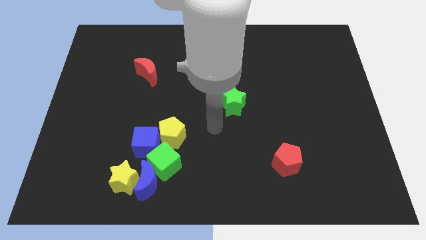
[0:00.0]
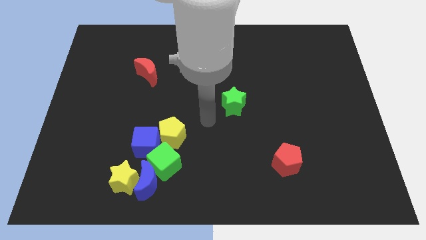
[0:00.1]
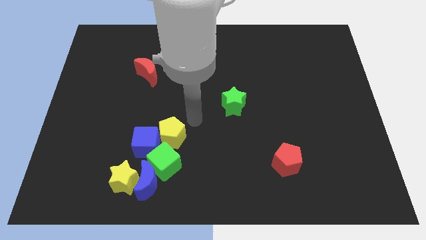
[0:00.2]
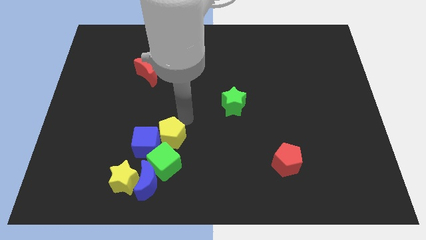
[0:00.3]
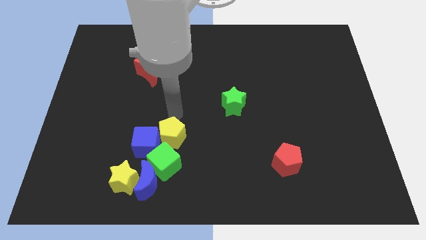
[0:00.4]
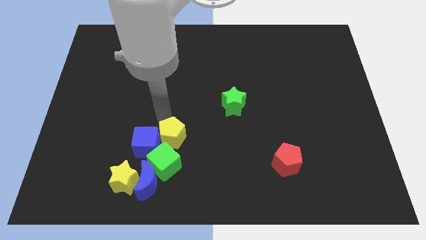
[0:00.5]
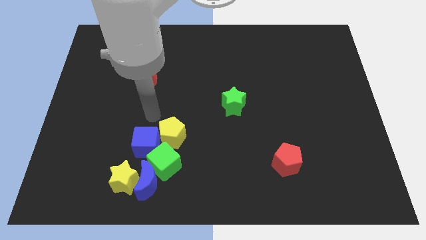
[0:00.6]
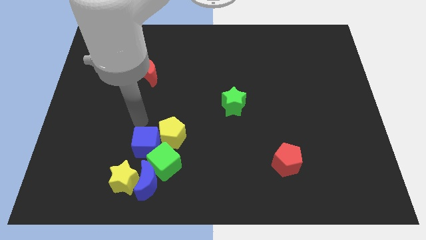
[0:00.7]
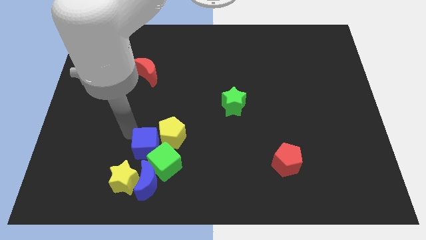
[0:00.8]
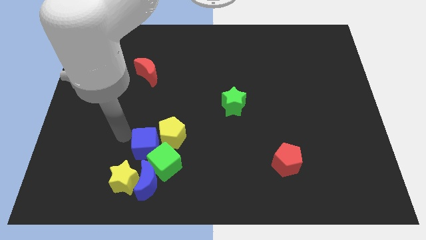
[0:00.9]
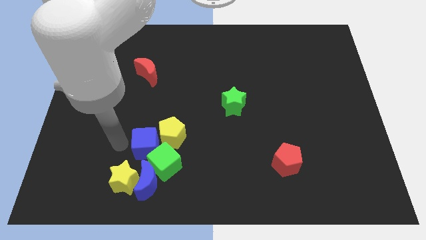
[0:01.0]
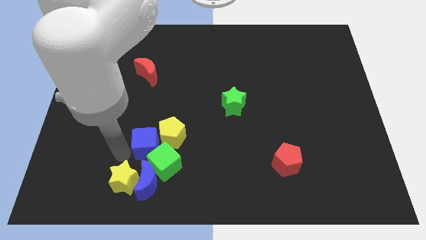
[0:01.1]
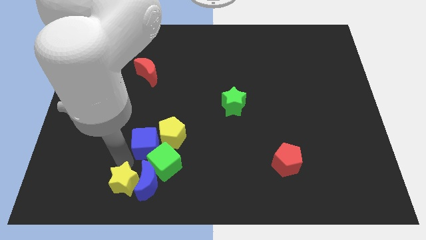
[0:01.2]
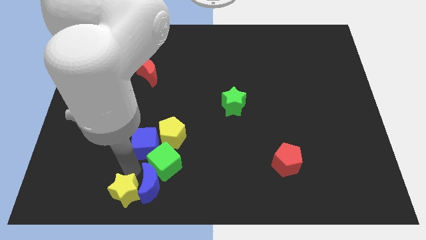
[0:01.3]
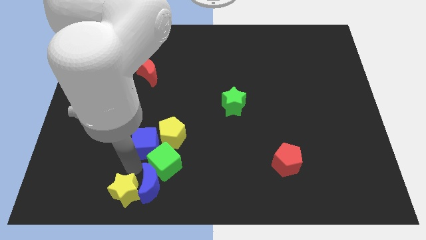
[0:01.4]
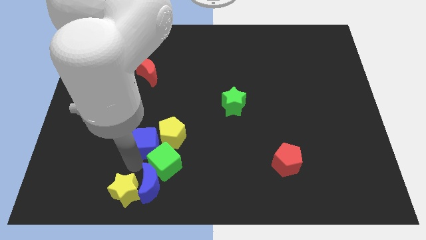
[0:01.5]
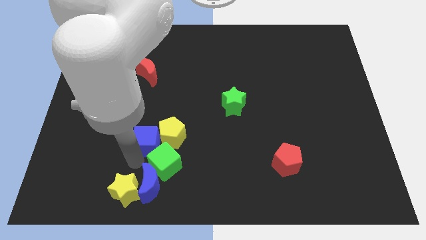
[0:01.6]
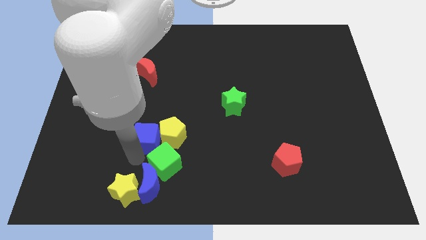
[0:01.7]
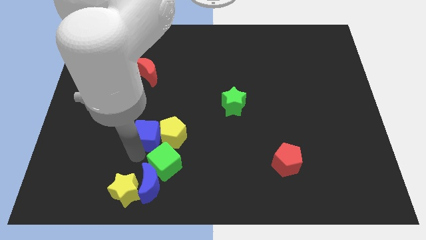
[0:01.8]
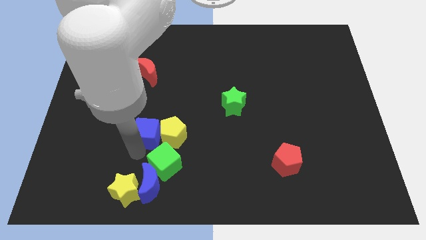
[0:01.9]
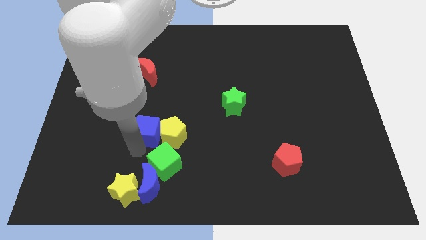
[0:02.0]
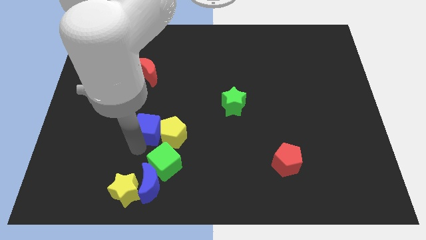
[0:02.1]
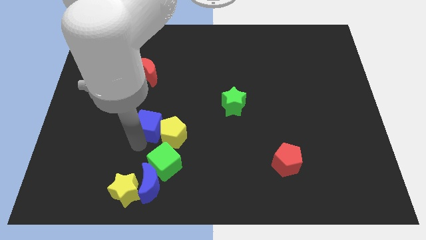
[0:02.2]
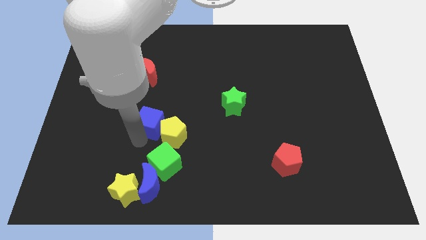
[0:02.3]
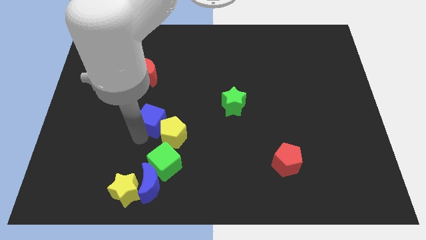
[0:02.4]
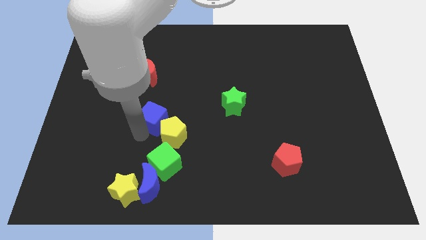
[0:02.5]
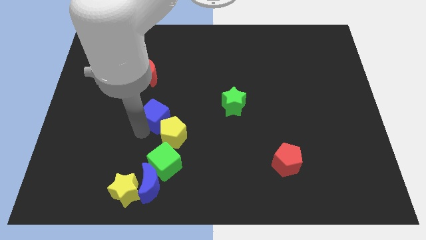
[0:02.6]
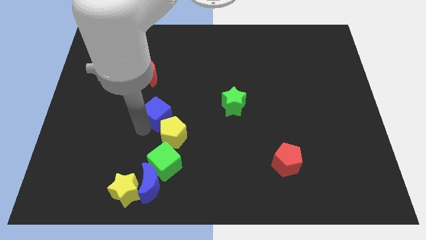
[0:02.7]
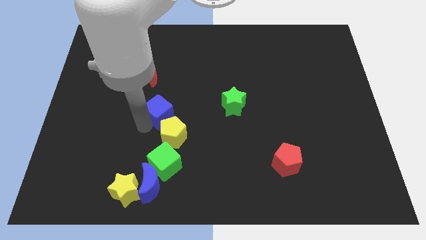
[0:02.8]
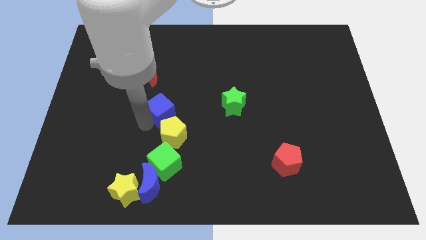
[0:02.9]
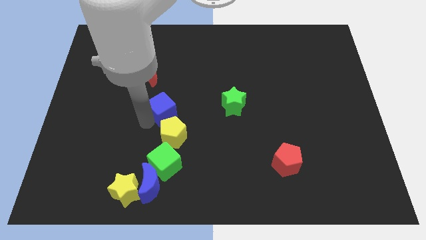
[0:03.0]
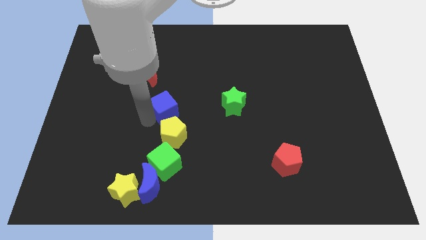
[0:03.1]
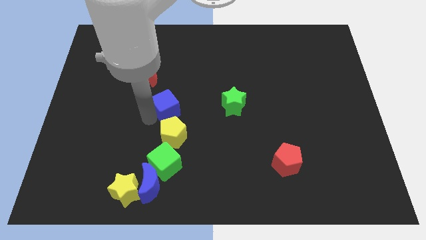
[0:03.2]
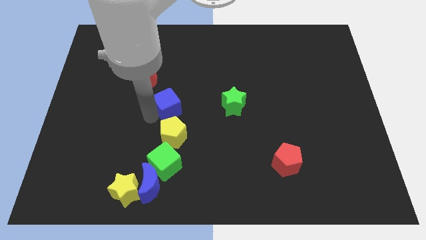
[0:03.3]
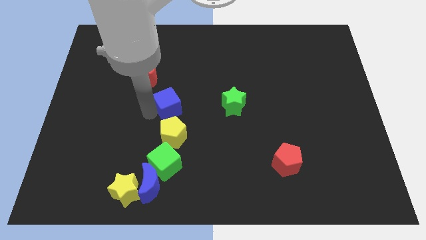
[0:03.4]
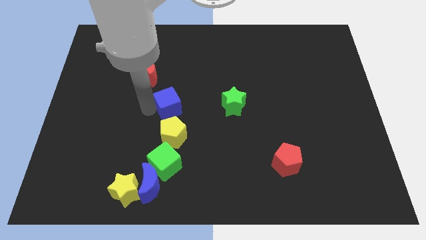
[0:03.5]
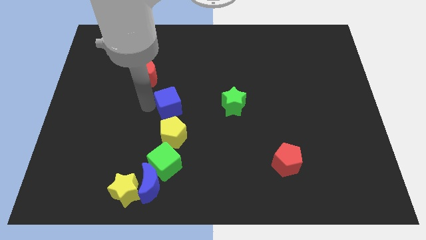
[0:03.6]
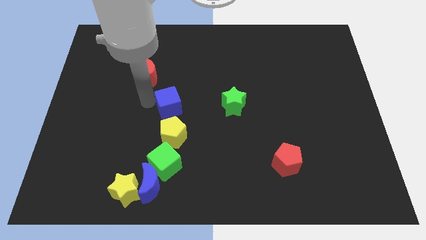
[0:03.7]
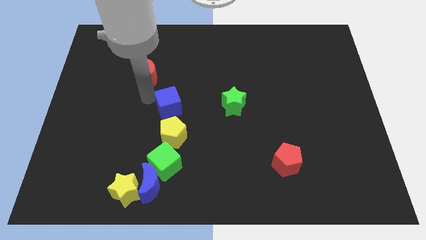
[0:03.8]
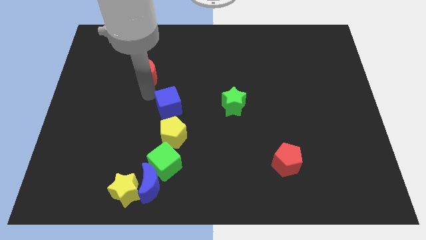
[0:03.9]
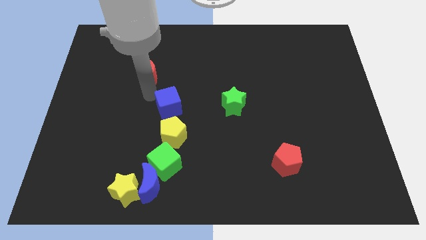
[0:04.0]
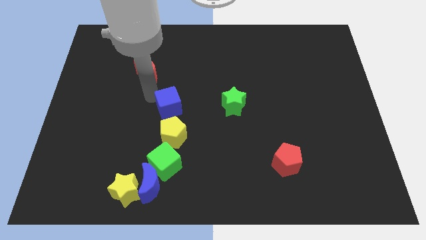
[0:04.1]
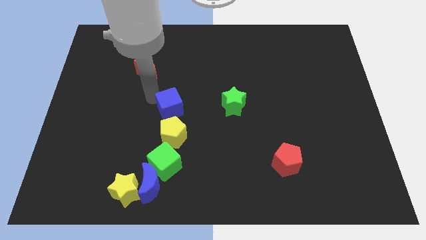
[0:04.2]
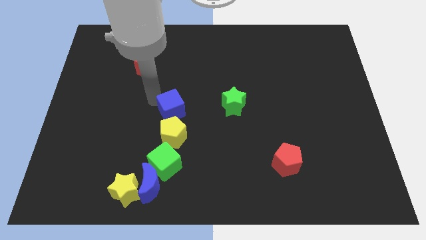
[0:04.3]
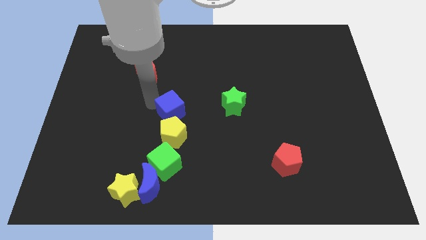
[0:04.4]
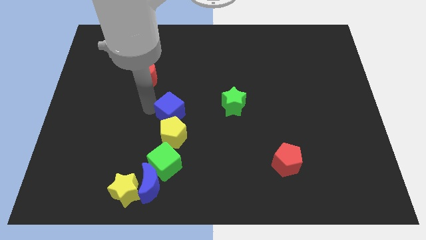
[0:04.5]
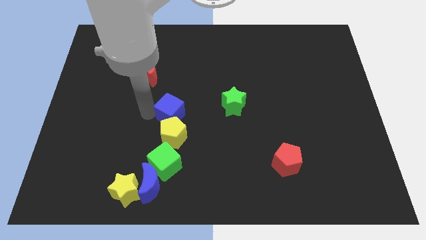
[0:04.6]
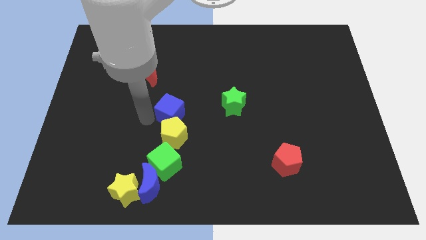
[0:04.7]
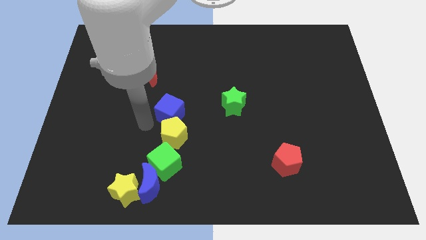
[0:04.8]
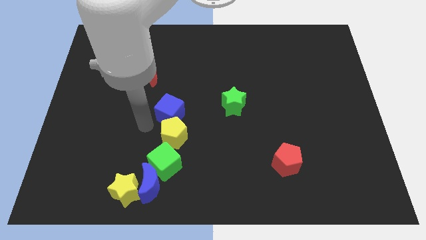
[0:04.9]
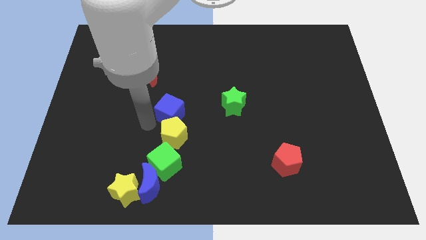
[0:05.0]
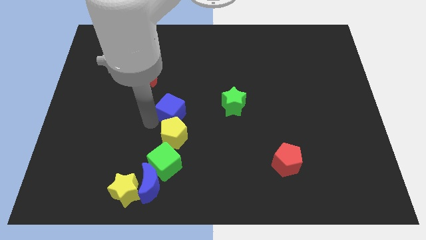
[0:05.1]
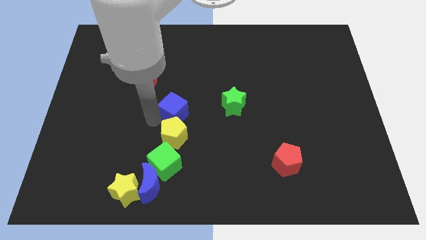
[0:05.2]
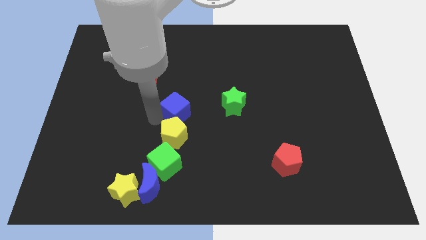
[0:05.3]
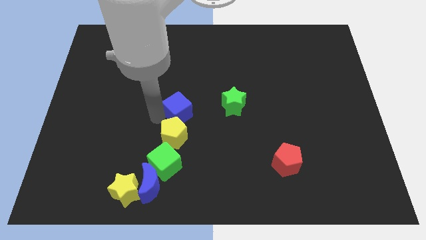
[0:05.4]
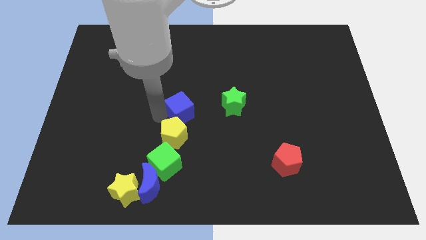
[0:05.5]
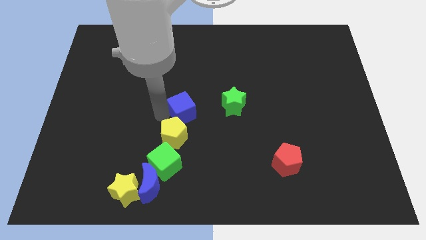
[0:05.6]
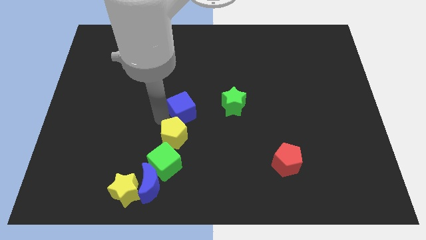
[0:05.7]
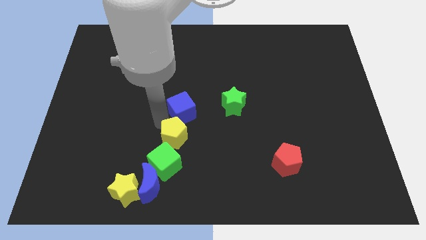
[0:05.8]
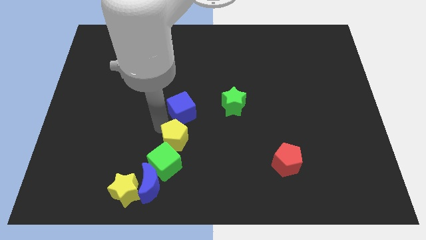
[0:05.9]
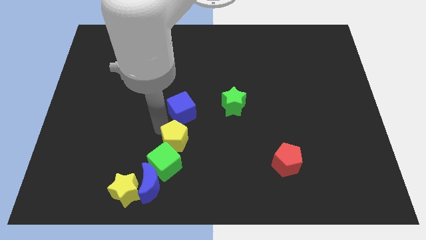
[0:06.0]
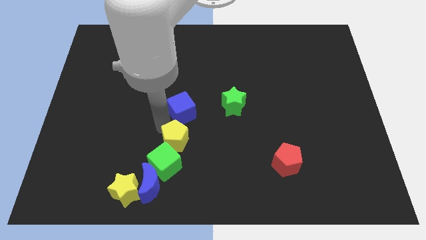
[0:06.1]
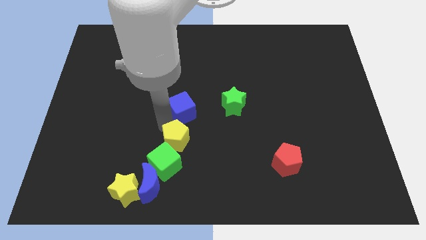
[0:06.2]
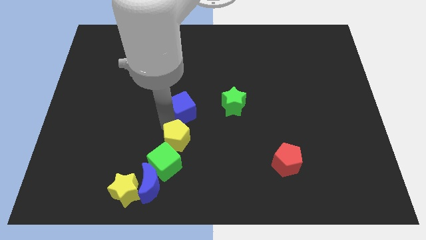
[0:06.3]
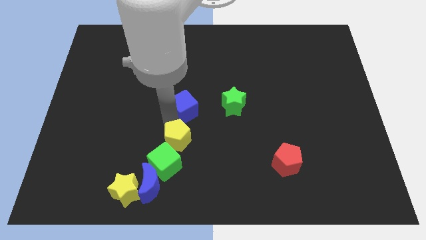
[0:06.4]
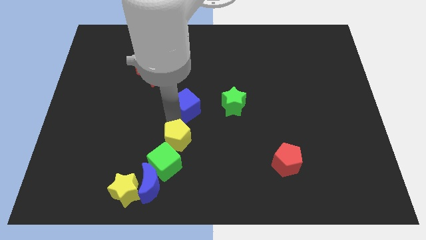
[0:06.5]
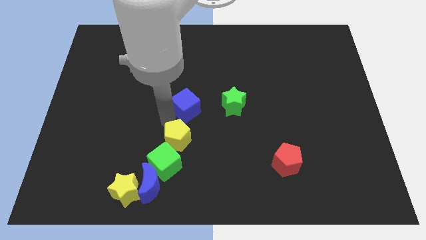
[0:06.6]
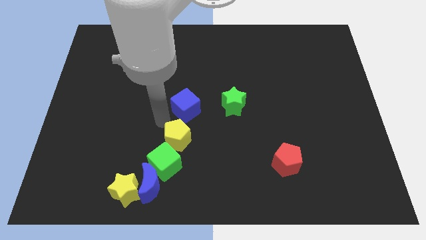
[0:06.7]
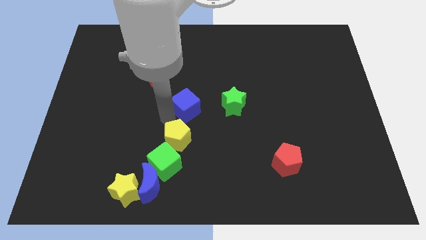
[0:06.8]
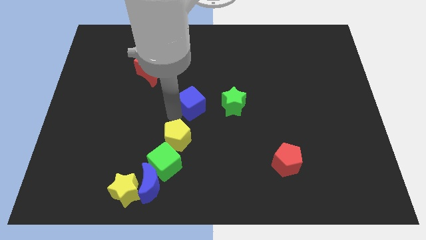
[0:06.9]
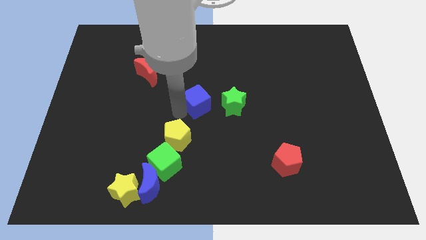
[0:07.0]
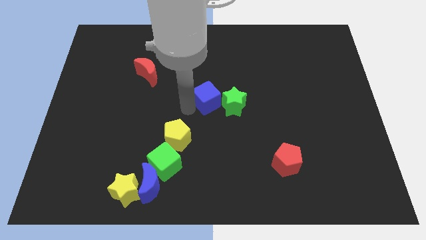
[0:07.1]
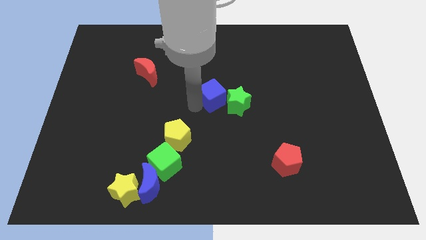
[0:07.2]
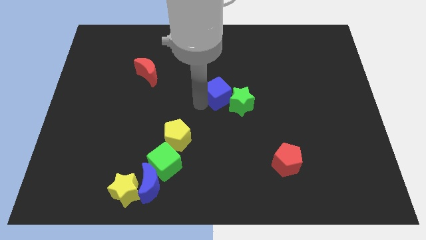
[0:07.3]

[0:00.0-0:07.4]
push the blue cube upwards and right diagonally

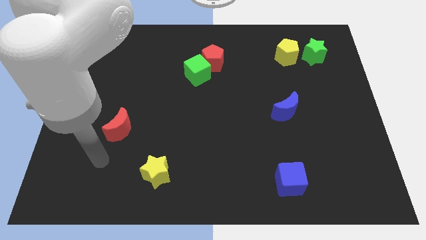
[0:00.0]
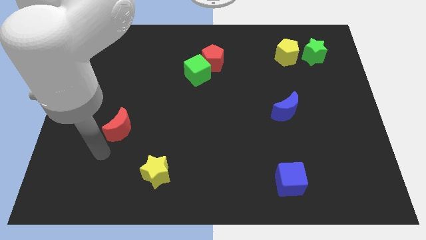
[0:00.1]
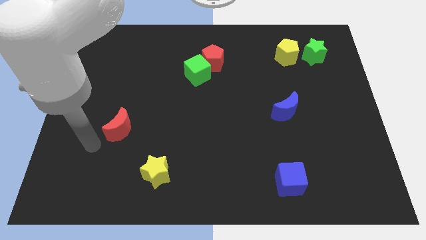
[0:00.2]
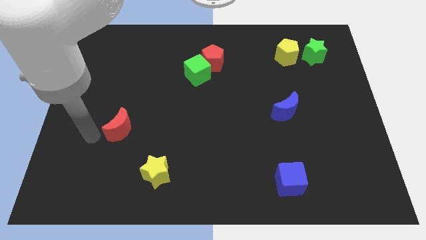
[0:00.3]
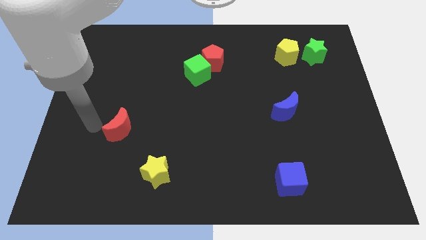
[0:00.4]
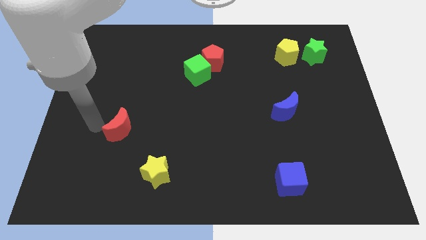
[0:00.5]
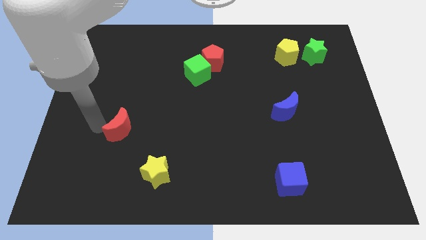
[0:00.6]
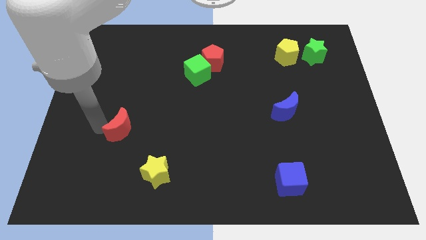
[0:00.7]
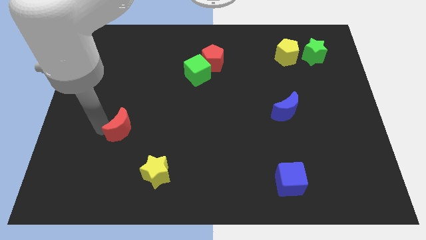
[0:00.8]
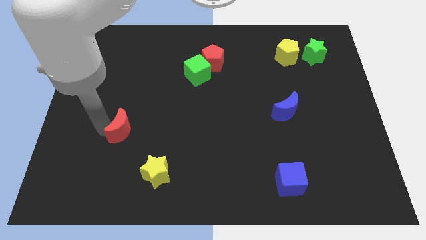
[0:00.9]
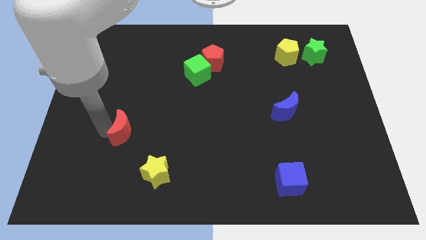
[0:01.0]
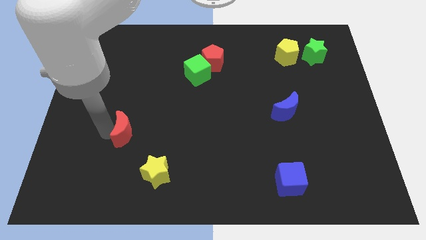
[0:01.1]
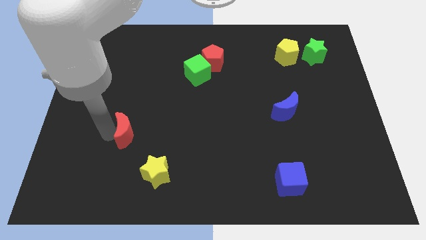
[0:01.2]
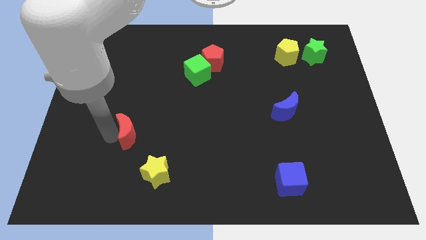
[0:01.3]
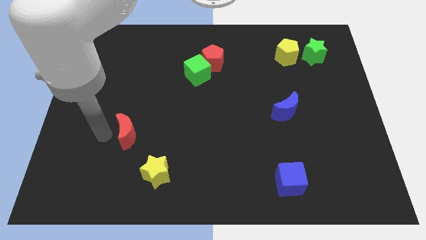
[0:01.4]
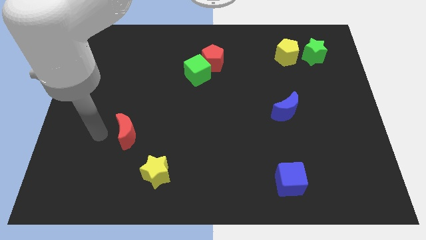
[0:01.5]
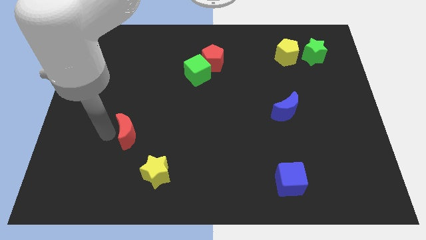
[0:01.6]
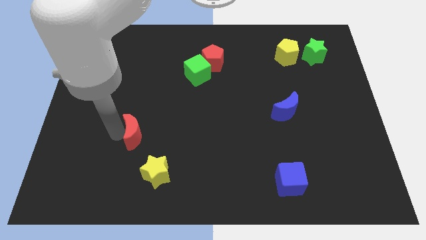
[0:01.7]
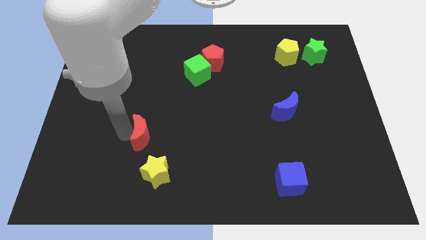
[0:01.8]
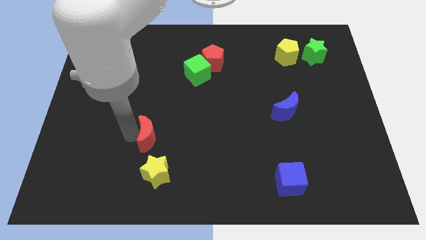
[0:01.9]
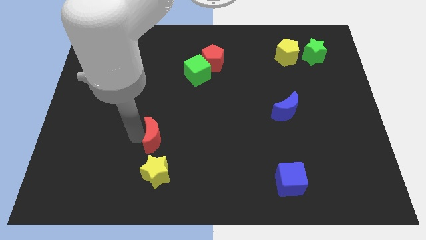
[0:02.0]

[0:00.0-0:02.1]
move the red moon to the right a bit
